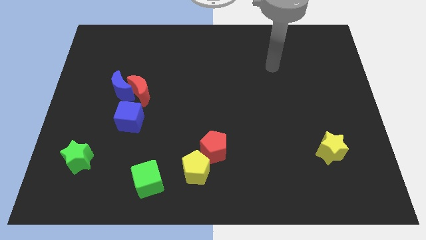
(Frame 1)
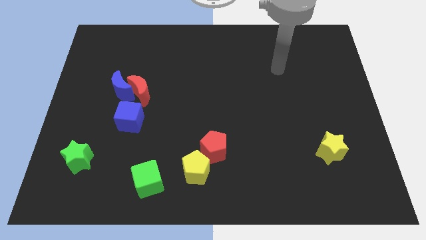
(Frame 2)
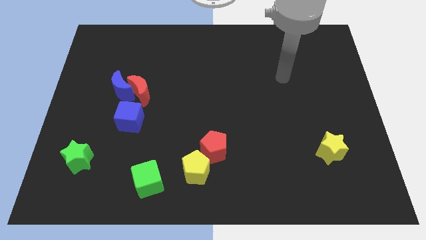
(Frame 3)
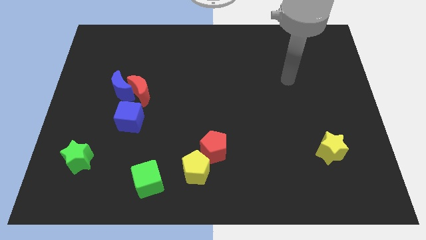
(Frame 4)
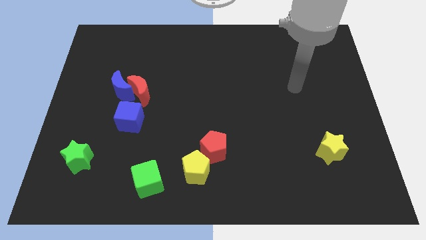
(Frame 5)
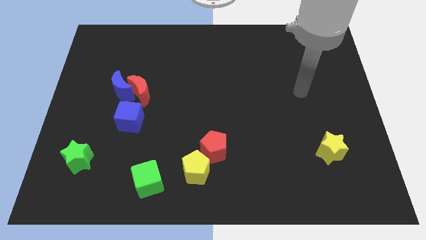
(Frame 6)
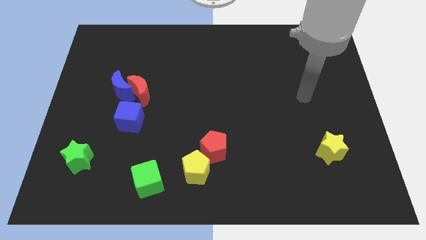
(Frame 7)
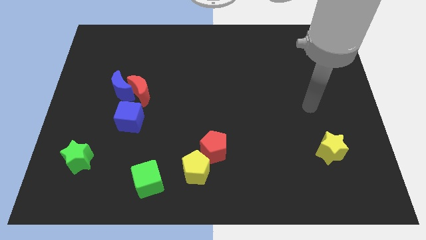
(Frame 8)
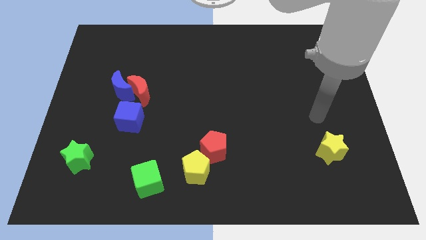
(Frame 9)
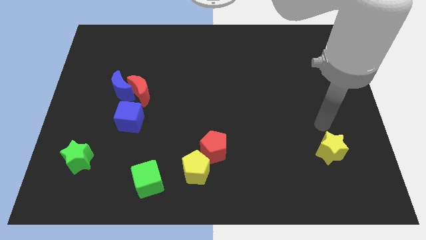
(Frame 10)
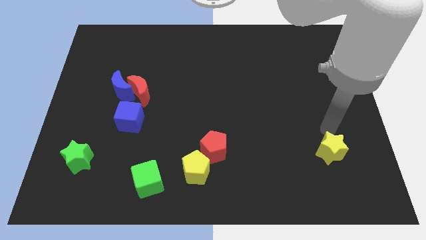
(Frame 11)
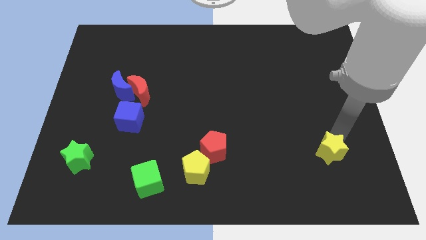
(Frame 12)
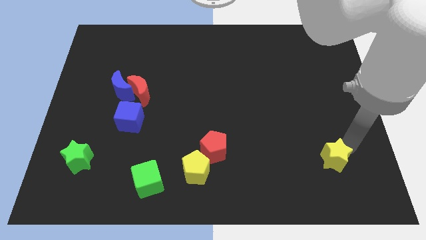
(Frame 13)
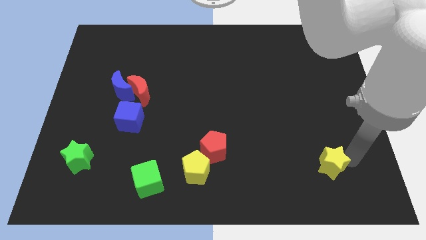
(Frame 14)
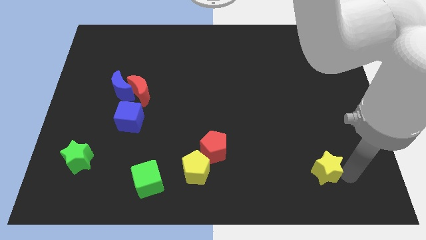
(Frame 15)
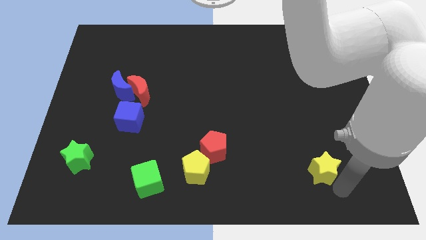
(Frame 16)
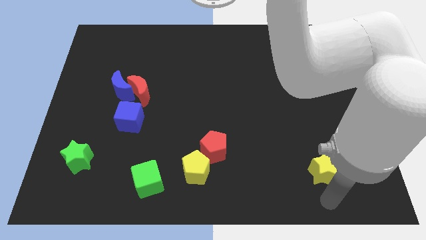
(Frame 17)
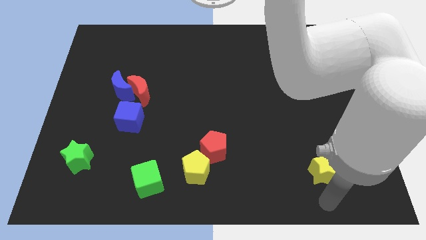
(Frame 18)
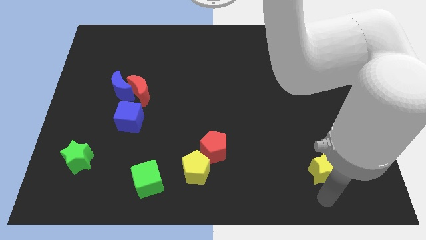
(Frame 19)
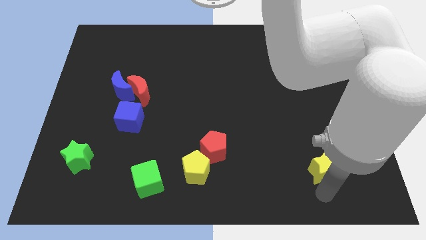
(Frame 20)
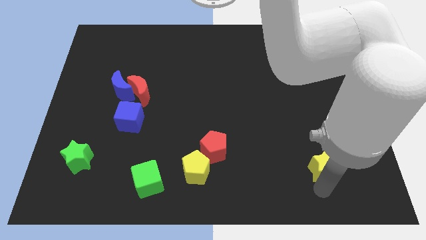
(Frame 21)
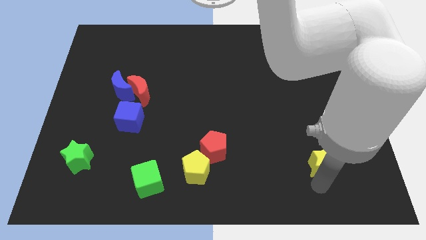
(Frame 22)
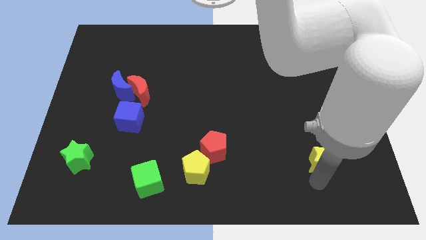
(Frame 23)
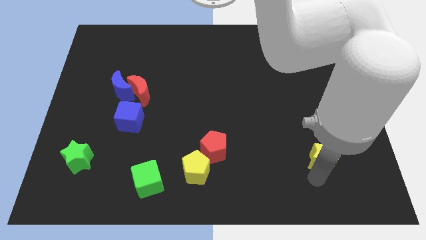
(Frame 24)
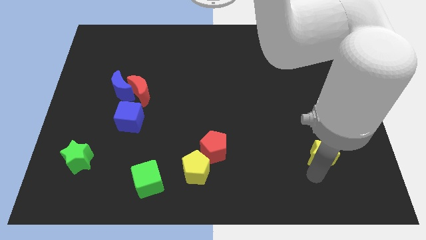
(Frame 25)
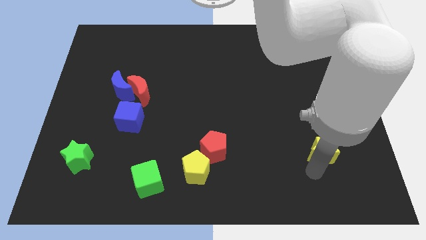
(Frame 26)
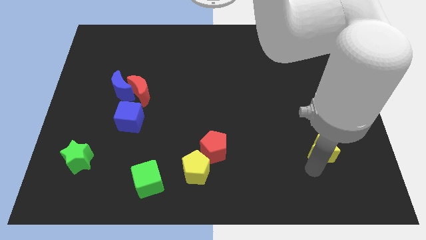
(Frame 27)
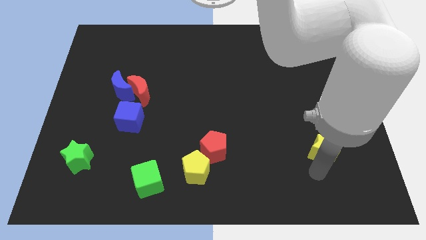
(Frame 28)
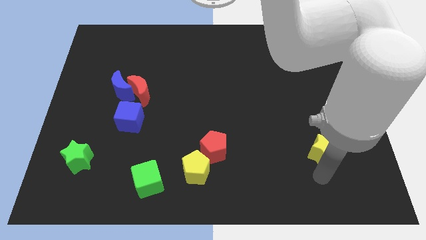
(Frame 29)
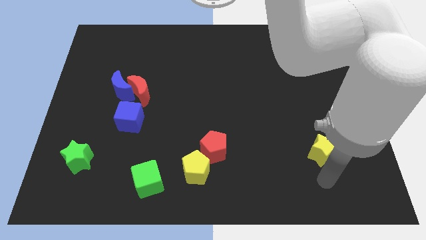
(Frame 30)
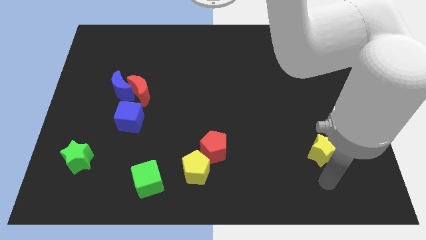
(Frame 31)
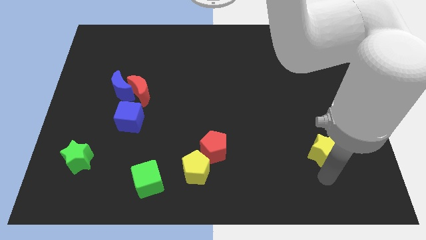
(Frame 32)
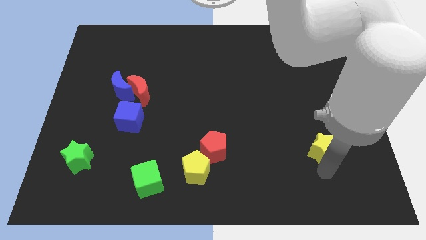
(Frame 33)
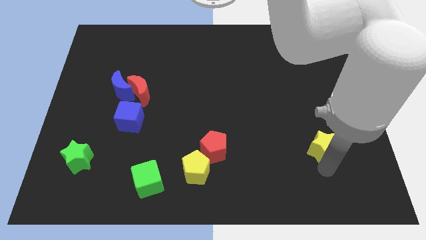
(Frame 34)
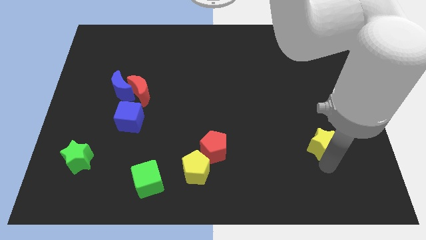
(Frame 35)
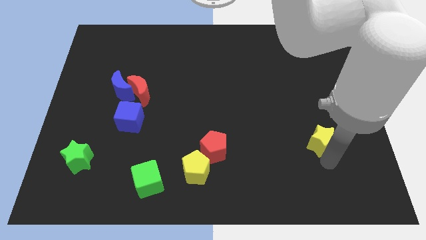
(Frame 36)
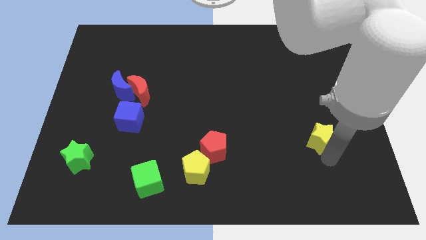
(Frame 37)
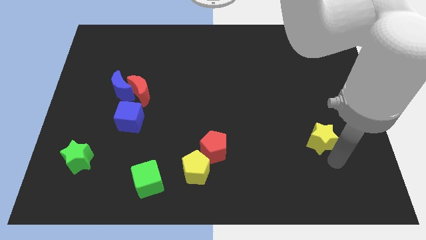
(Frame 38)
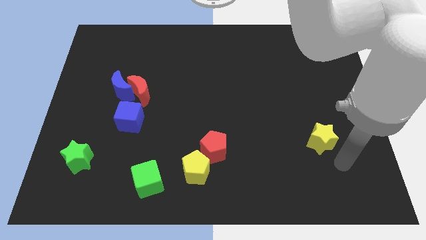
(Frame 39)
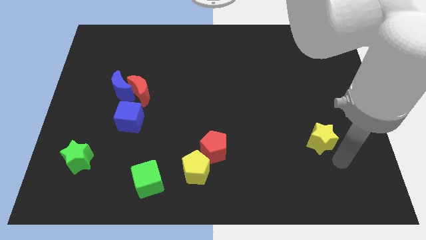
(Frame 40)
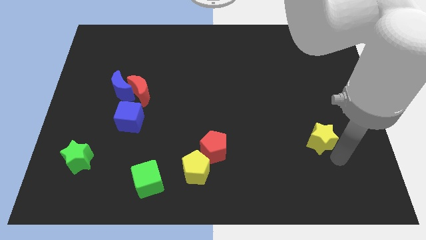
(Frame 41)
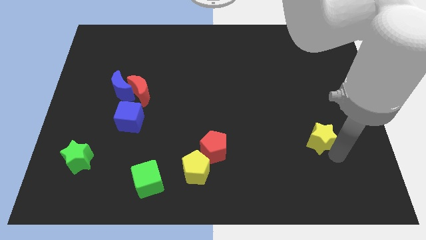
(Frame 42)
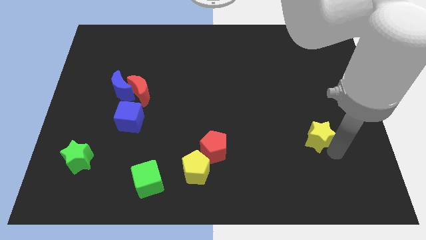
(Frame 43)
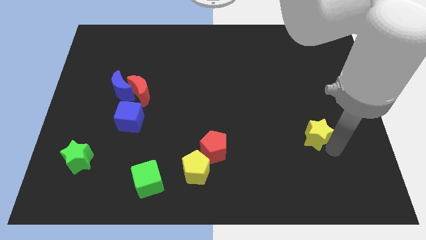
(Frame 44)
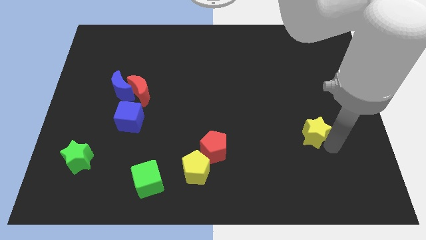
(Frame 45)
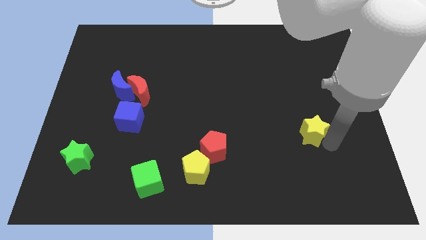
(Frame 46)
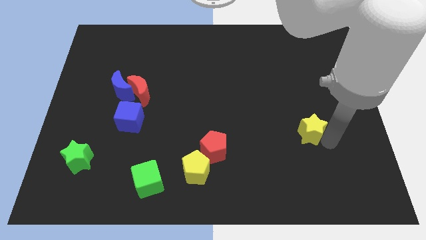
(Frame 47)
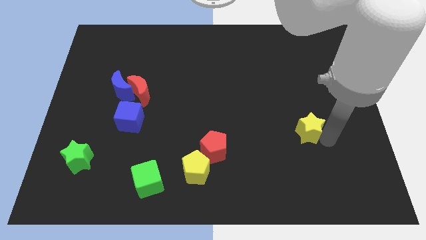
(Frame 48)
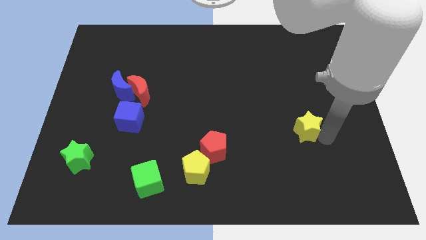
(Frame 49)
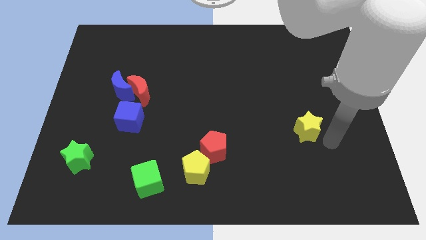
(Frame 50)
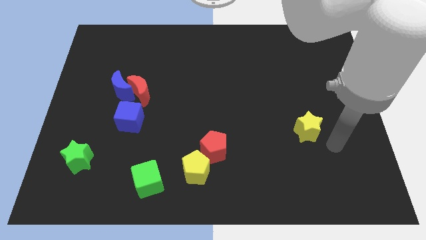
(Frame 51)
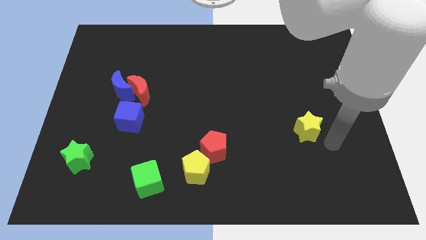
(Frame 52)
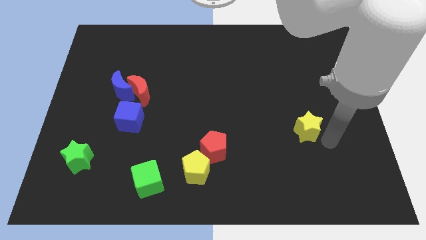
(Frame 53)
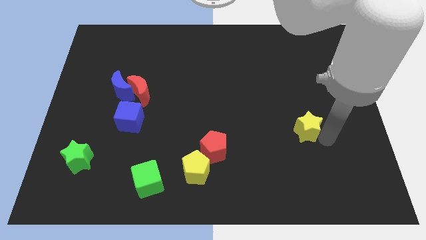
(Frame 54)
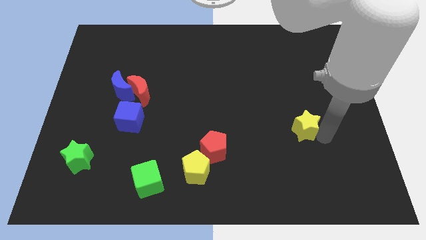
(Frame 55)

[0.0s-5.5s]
move the yellow star upwards and to the left somewhat

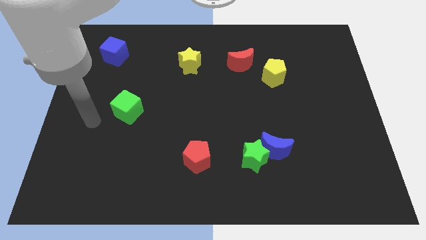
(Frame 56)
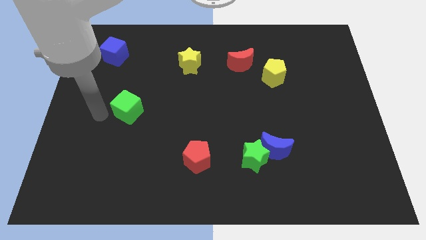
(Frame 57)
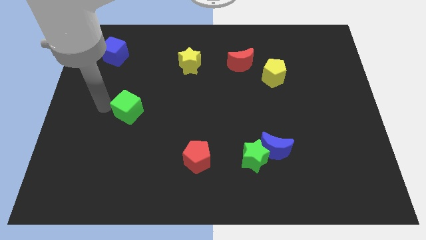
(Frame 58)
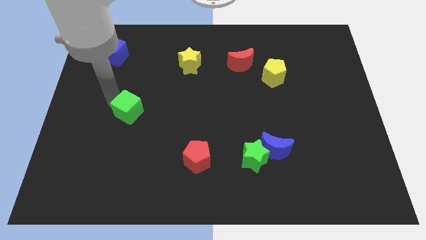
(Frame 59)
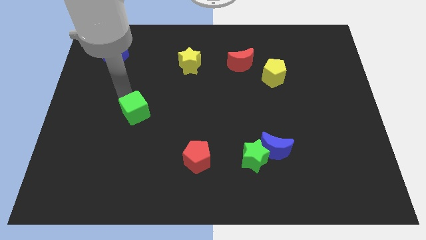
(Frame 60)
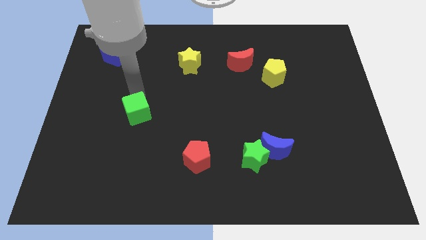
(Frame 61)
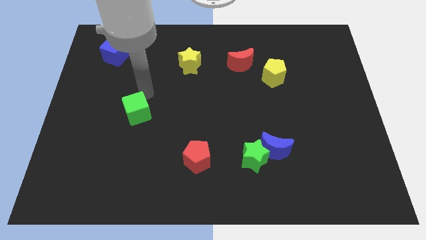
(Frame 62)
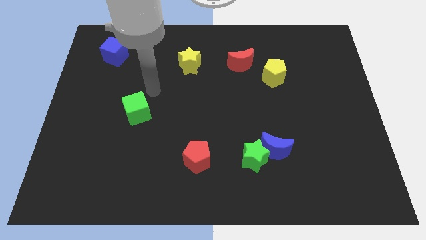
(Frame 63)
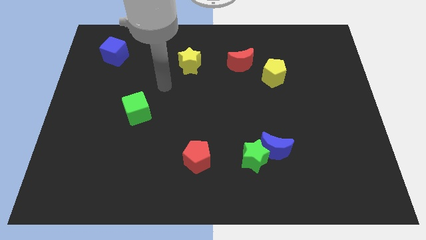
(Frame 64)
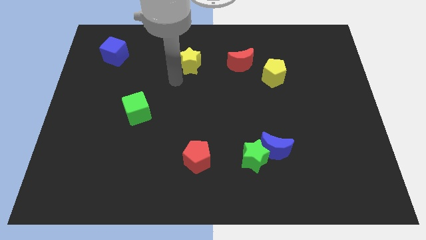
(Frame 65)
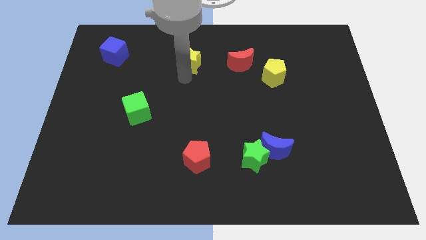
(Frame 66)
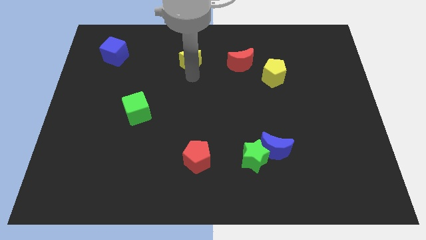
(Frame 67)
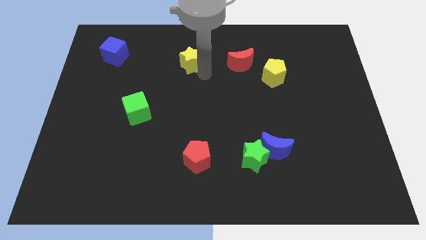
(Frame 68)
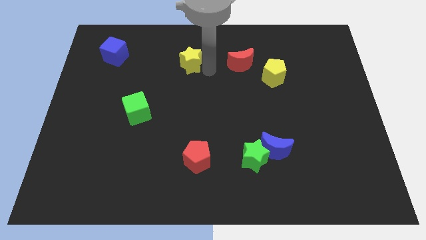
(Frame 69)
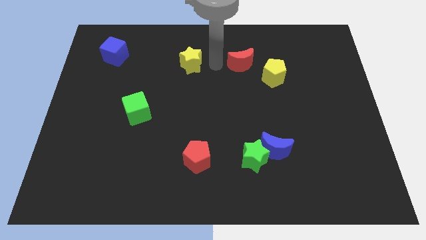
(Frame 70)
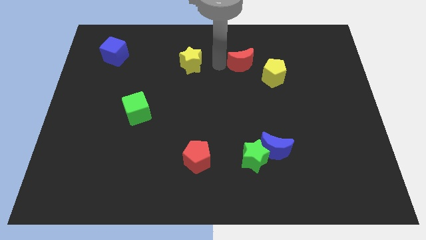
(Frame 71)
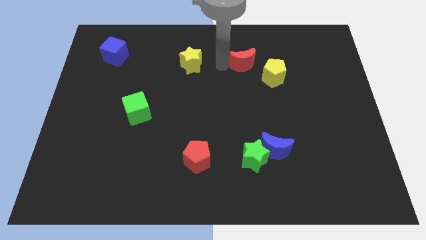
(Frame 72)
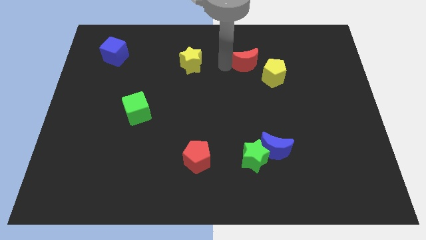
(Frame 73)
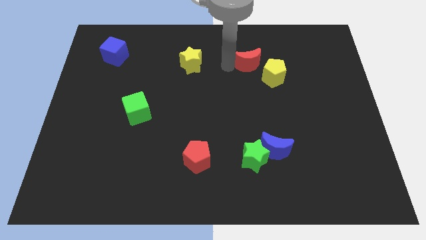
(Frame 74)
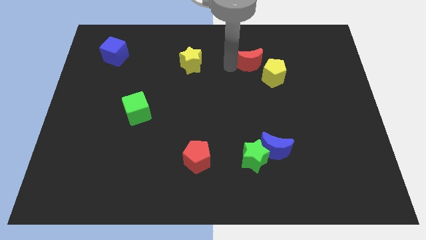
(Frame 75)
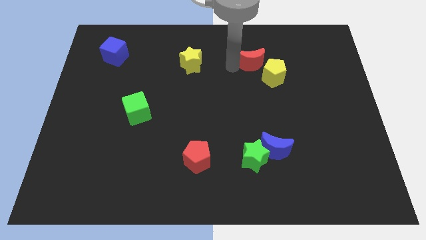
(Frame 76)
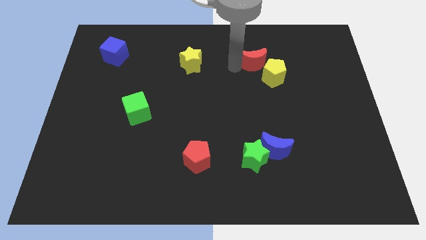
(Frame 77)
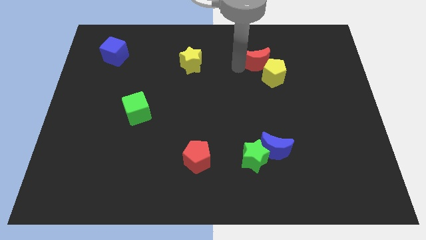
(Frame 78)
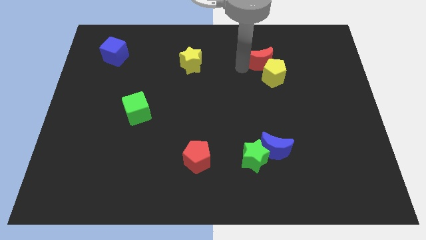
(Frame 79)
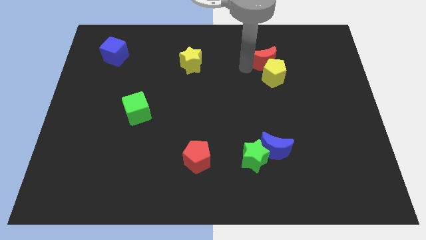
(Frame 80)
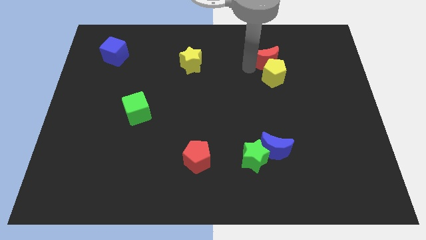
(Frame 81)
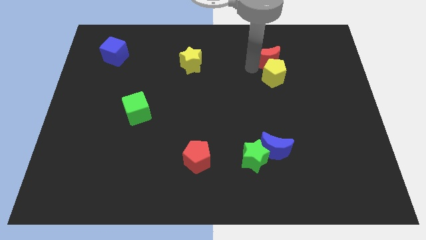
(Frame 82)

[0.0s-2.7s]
slightly slide the red moon right
